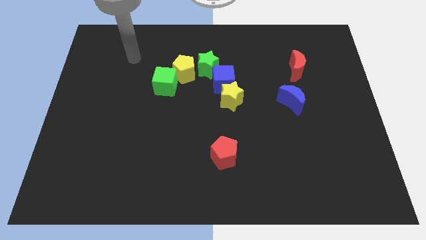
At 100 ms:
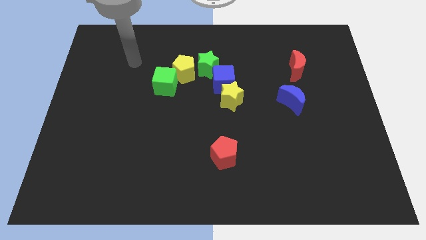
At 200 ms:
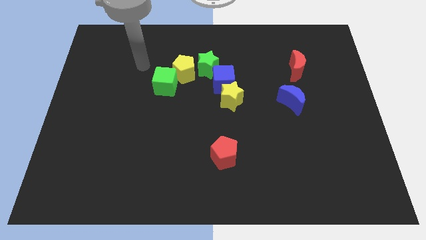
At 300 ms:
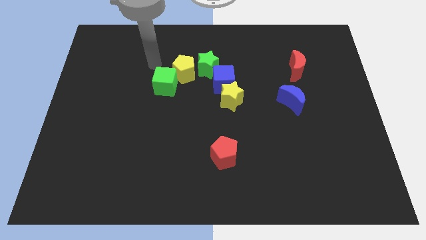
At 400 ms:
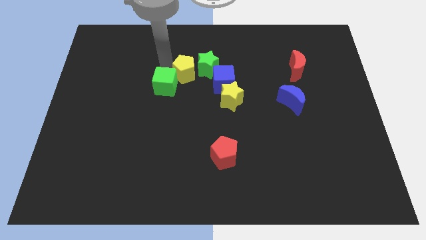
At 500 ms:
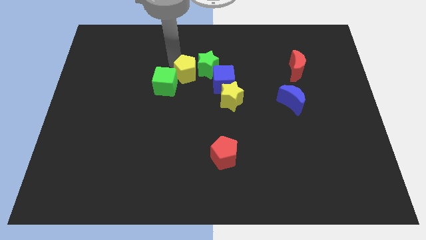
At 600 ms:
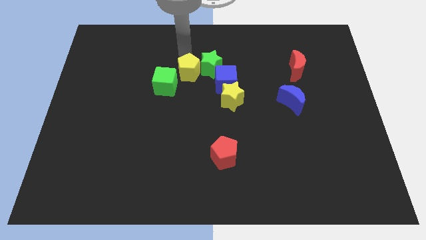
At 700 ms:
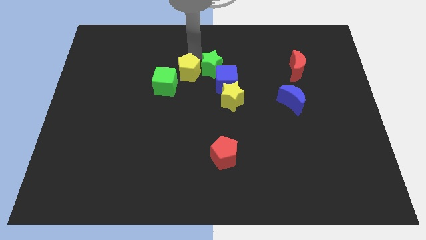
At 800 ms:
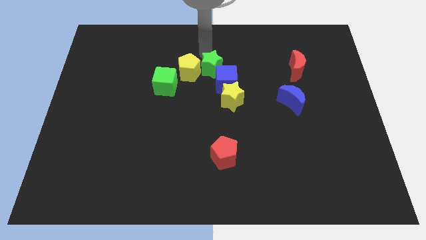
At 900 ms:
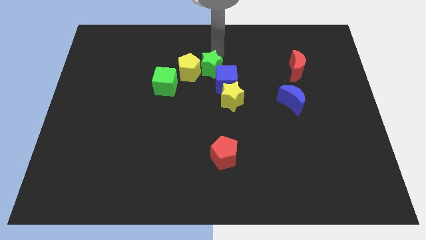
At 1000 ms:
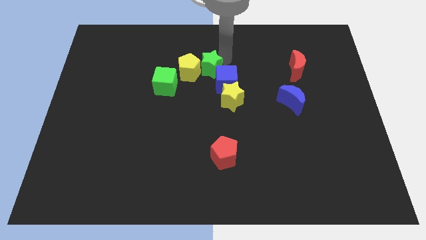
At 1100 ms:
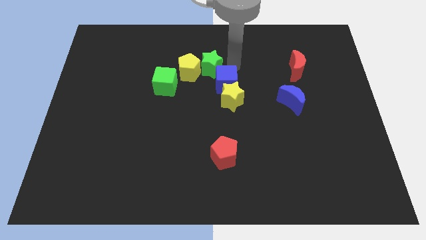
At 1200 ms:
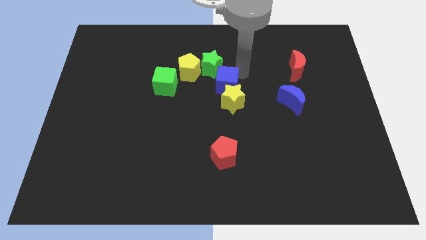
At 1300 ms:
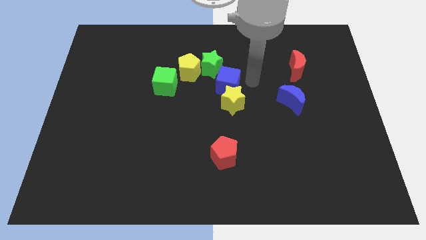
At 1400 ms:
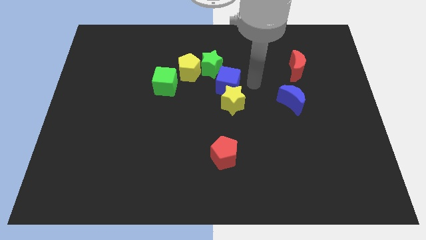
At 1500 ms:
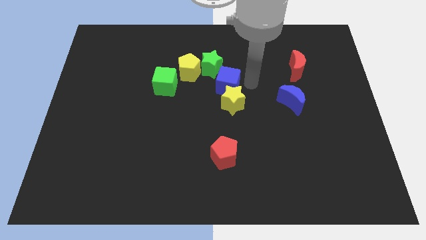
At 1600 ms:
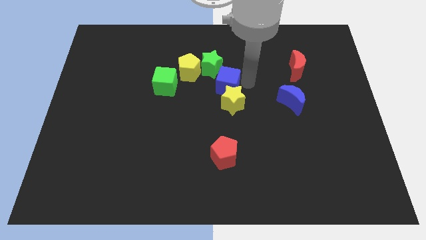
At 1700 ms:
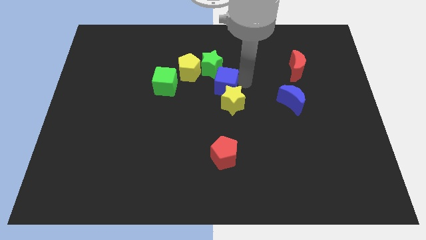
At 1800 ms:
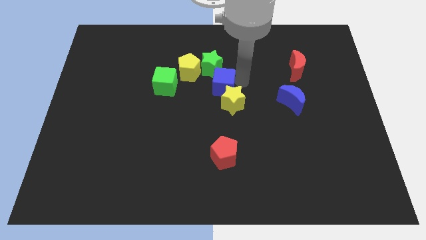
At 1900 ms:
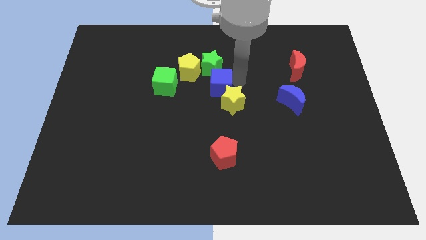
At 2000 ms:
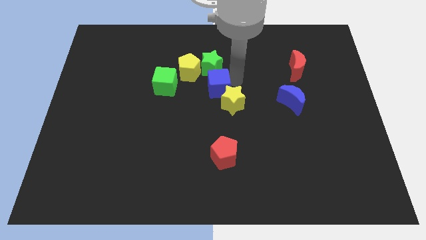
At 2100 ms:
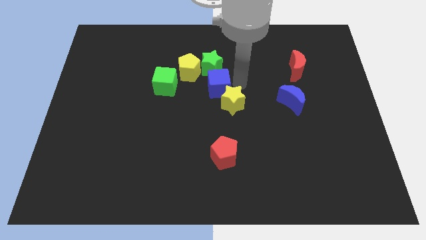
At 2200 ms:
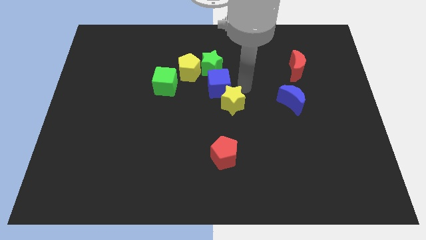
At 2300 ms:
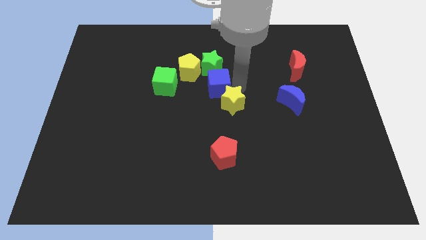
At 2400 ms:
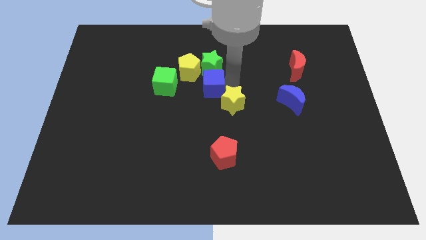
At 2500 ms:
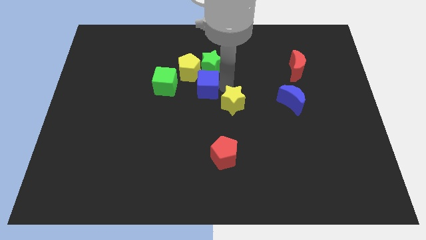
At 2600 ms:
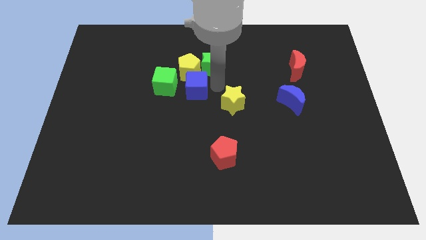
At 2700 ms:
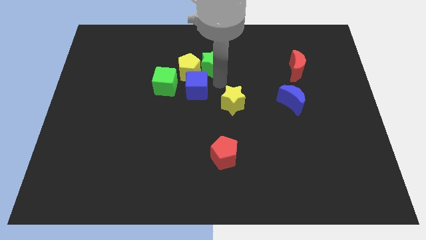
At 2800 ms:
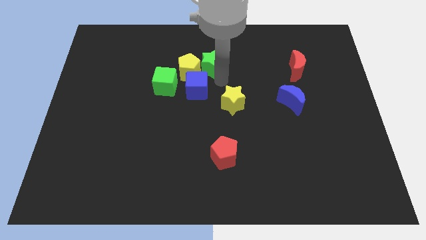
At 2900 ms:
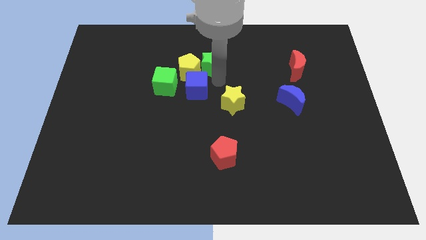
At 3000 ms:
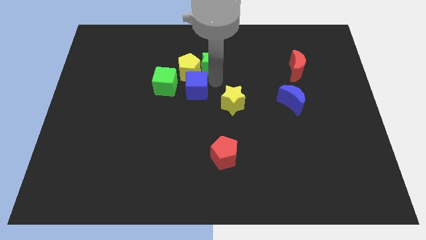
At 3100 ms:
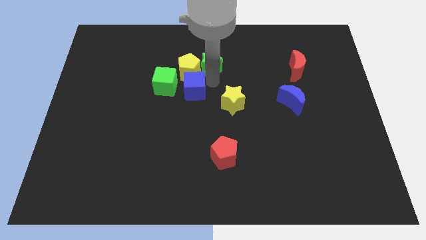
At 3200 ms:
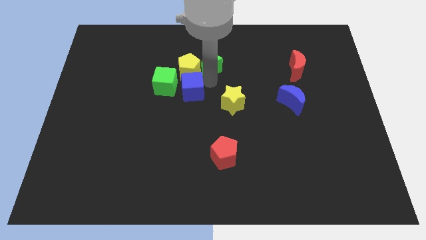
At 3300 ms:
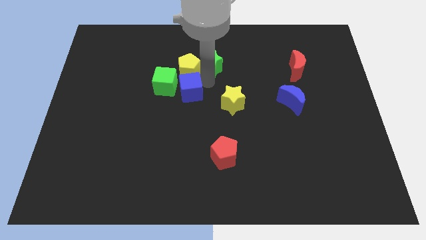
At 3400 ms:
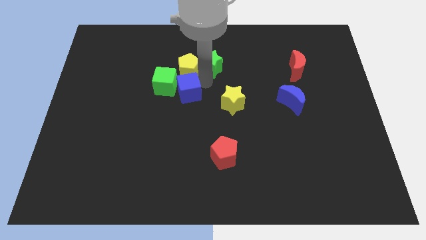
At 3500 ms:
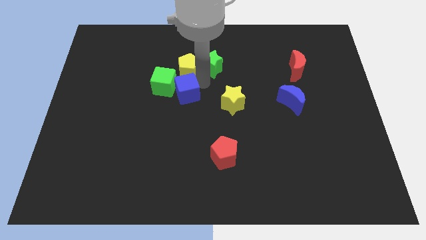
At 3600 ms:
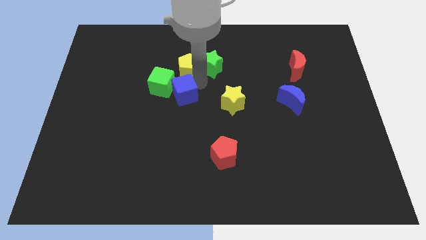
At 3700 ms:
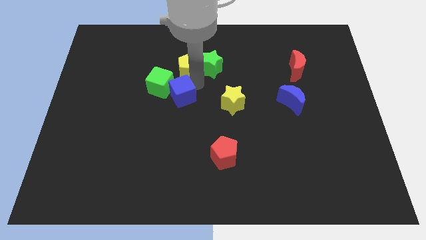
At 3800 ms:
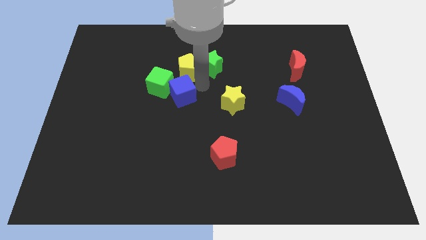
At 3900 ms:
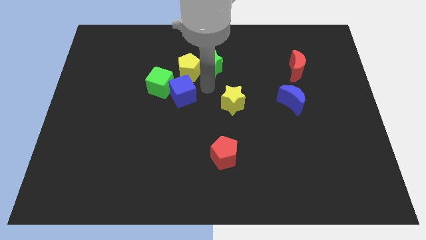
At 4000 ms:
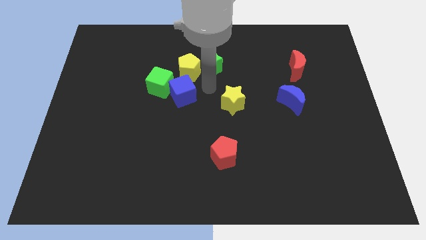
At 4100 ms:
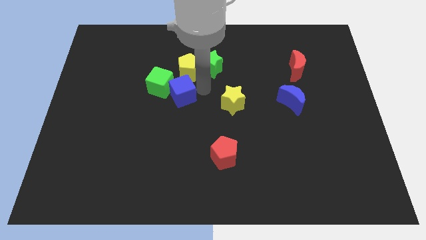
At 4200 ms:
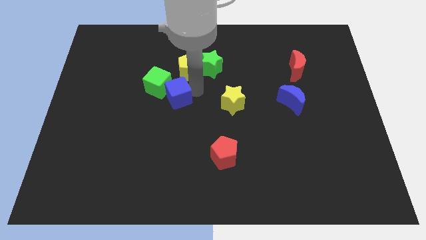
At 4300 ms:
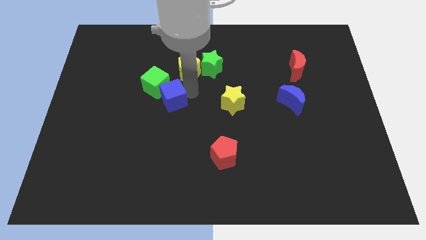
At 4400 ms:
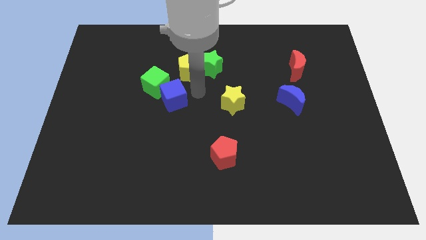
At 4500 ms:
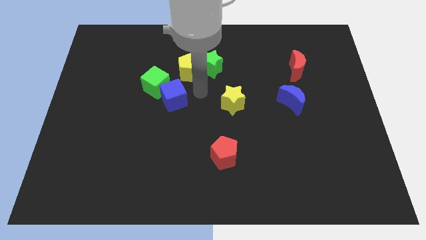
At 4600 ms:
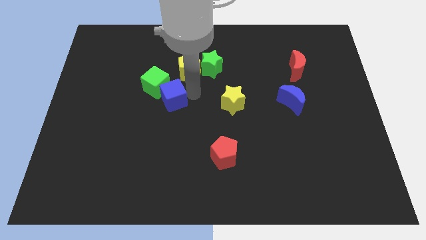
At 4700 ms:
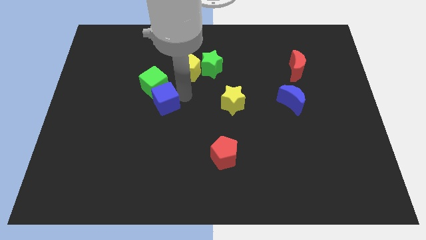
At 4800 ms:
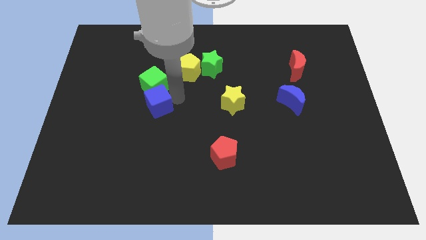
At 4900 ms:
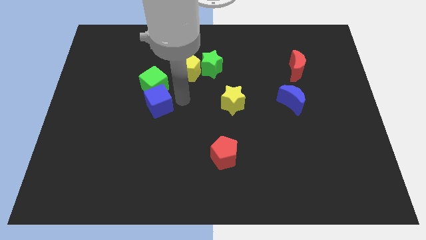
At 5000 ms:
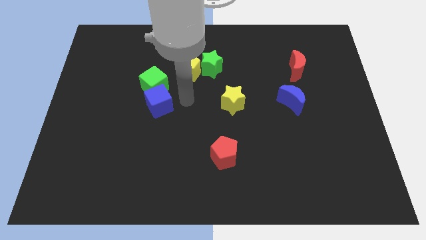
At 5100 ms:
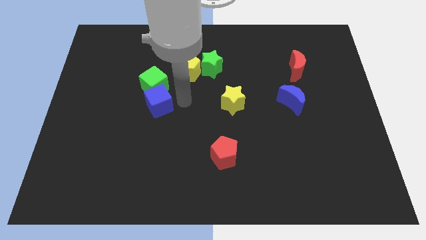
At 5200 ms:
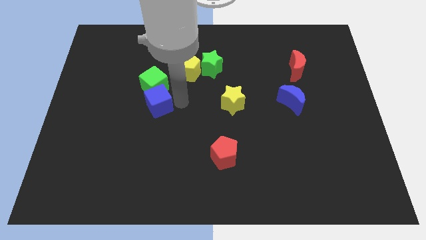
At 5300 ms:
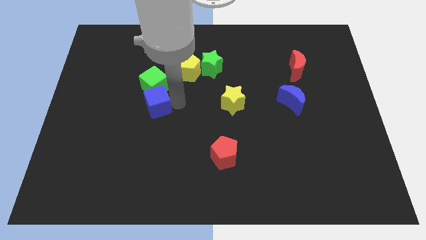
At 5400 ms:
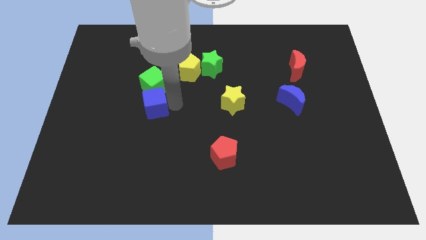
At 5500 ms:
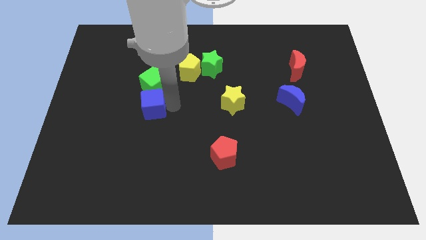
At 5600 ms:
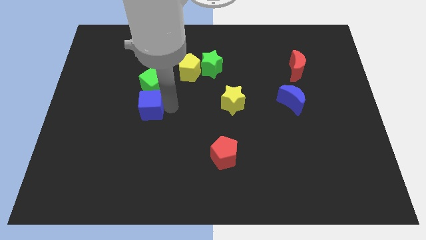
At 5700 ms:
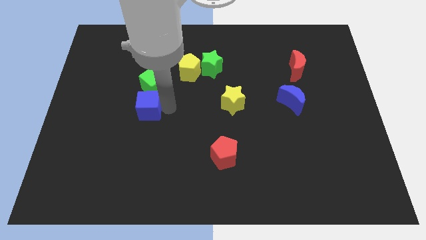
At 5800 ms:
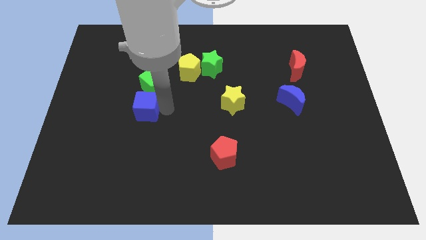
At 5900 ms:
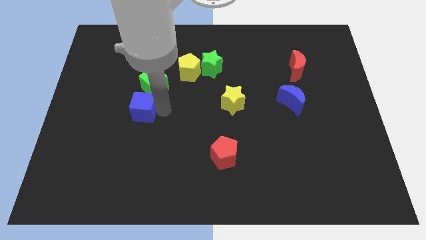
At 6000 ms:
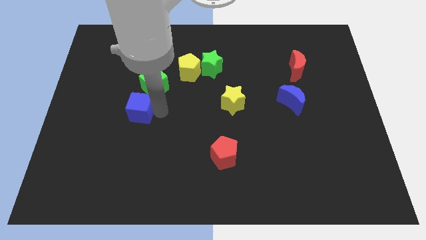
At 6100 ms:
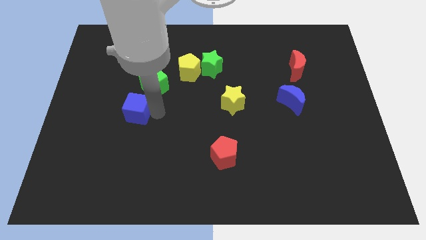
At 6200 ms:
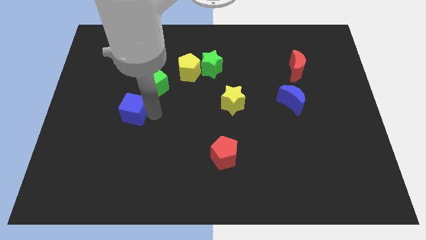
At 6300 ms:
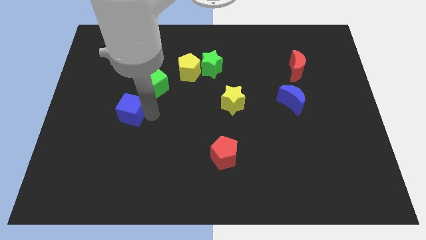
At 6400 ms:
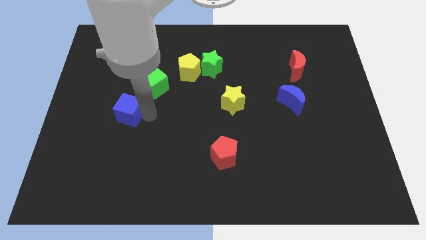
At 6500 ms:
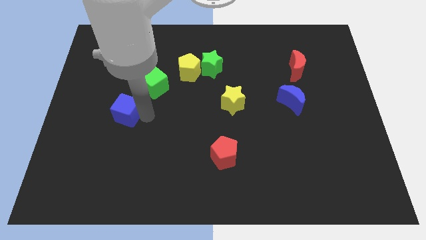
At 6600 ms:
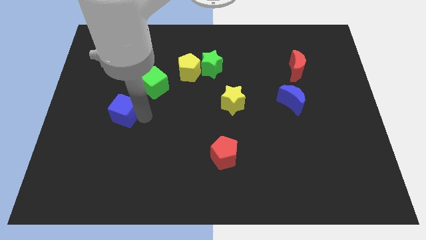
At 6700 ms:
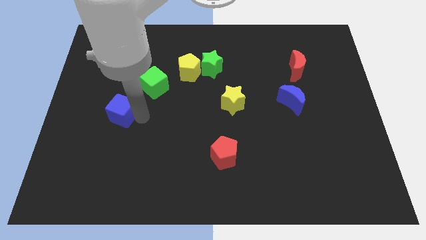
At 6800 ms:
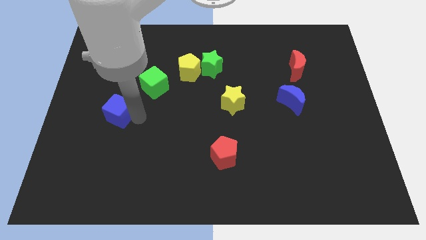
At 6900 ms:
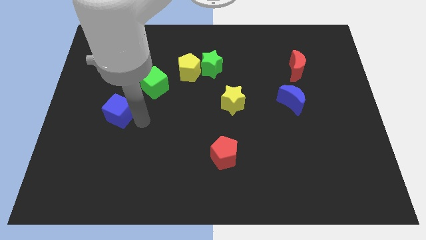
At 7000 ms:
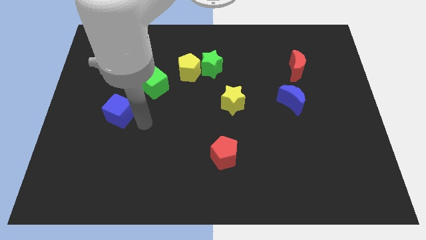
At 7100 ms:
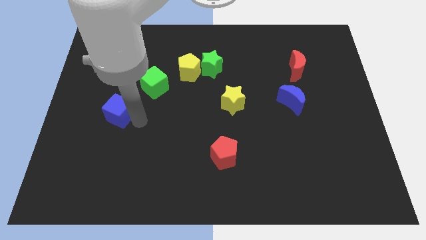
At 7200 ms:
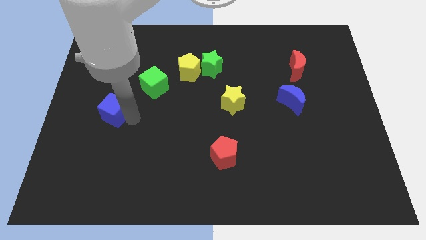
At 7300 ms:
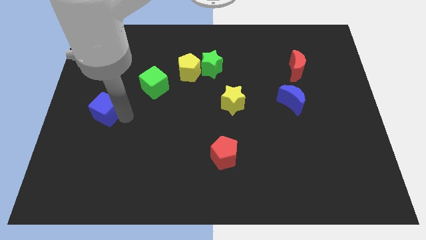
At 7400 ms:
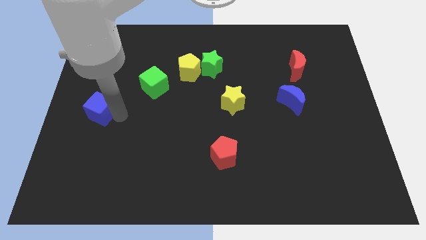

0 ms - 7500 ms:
slide the blue cube to the left side of the board
